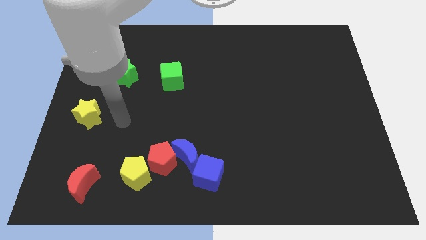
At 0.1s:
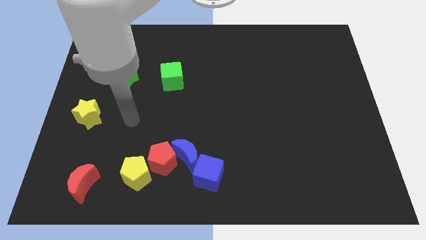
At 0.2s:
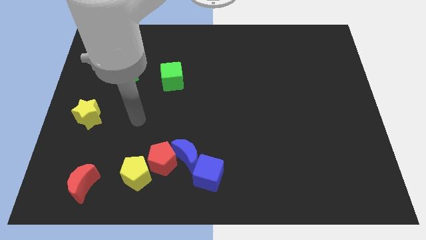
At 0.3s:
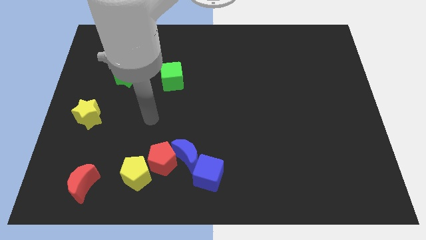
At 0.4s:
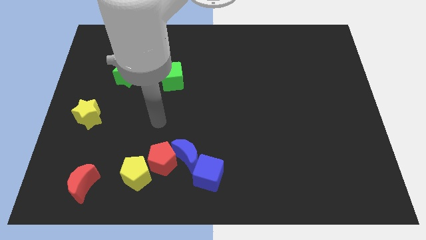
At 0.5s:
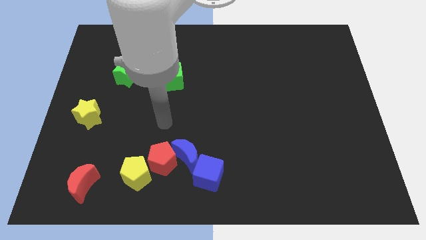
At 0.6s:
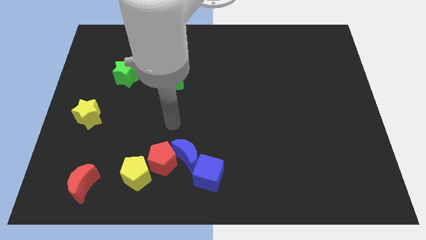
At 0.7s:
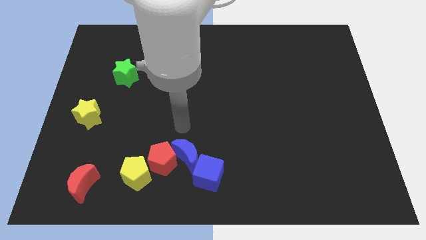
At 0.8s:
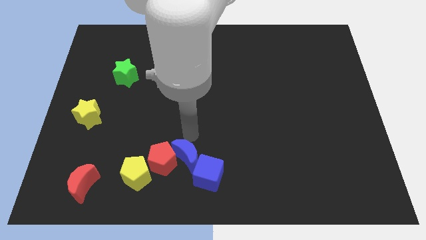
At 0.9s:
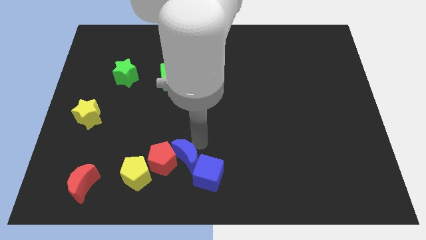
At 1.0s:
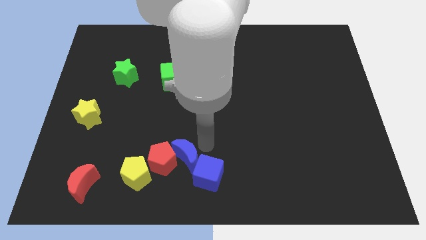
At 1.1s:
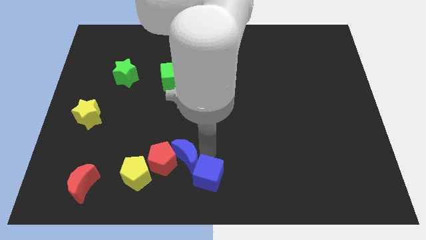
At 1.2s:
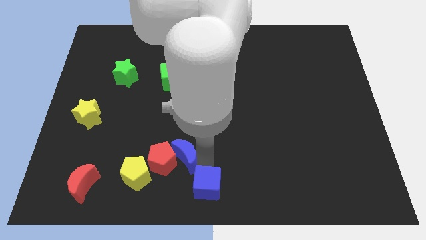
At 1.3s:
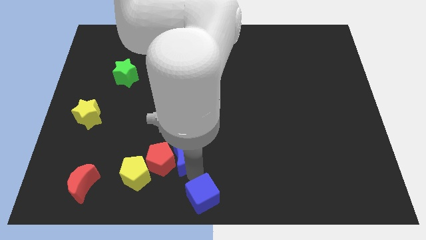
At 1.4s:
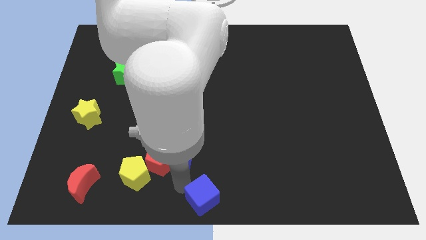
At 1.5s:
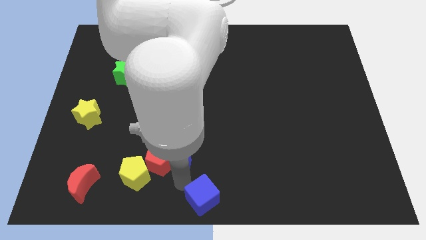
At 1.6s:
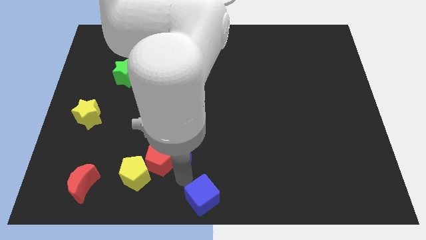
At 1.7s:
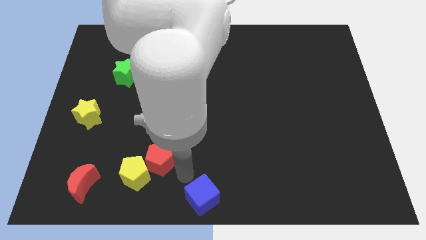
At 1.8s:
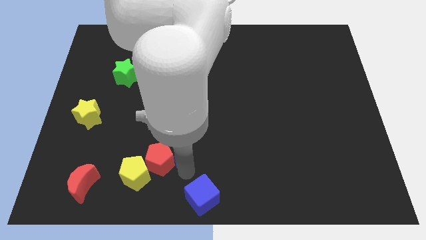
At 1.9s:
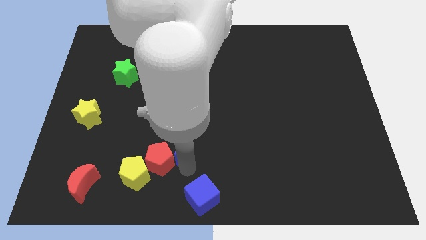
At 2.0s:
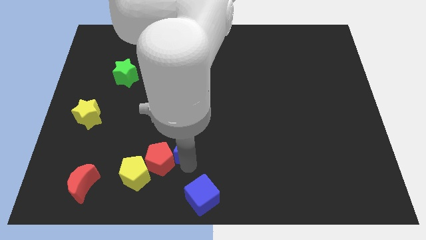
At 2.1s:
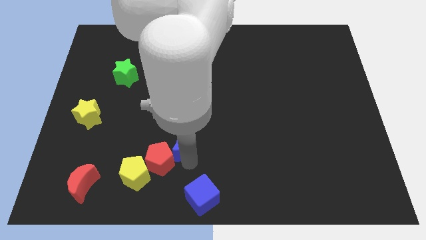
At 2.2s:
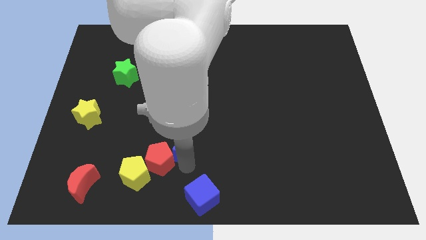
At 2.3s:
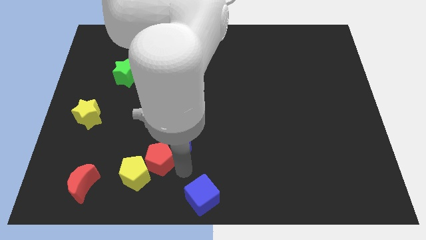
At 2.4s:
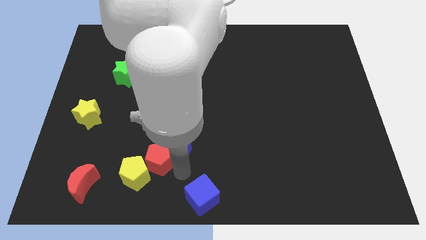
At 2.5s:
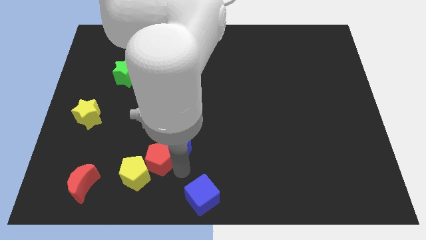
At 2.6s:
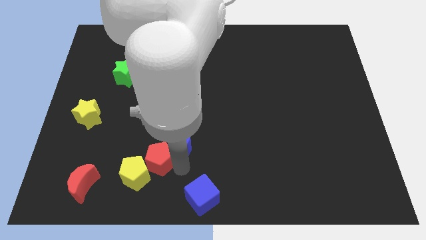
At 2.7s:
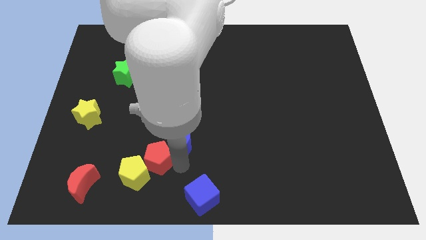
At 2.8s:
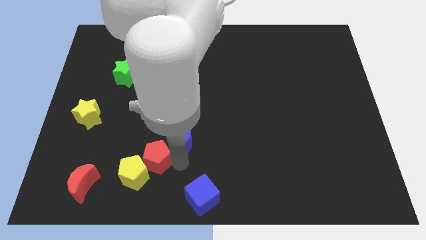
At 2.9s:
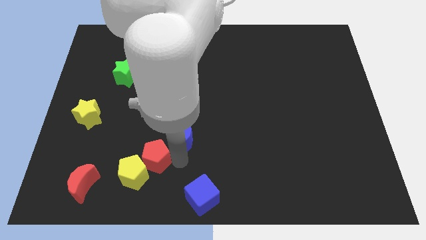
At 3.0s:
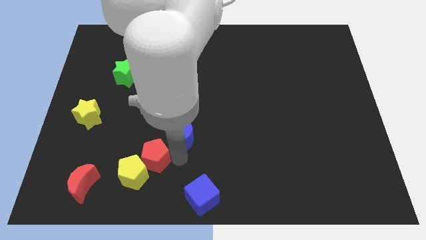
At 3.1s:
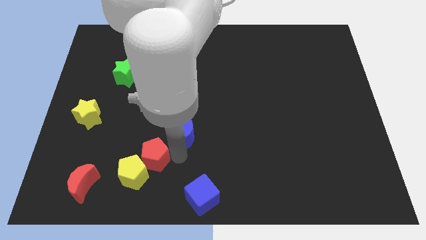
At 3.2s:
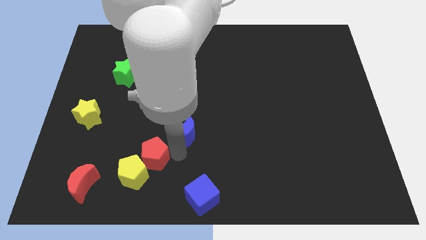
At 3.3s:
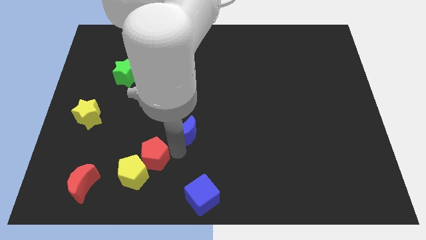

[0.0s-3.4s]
move the blue moon away from the red pentagon and blue cube

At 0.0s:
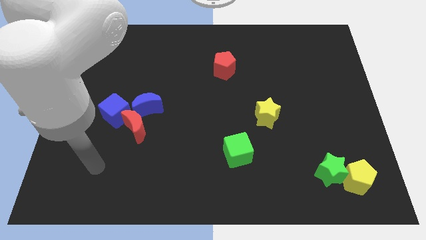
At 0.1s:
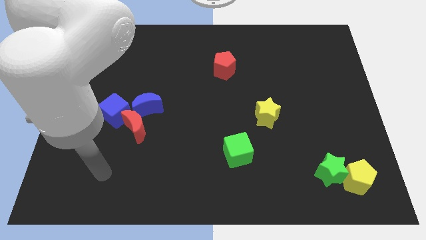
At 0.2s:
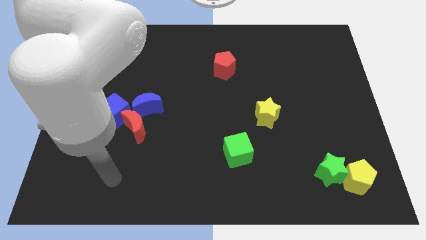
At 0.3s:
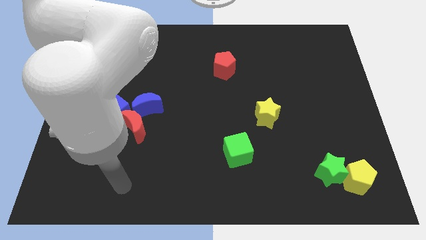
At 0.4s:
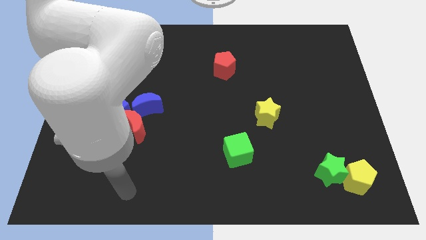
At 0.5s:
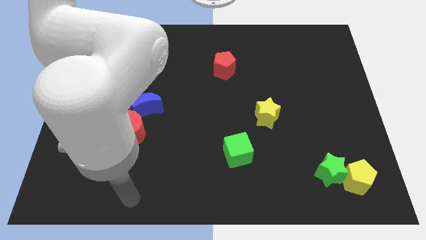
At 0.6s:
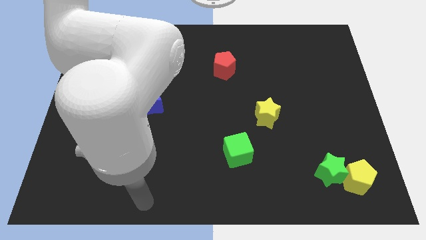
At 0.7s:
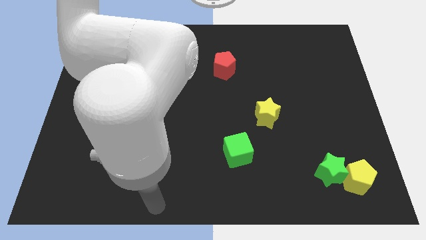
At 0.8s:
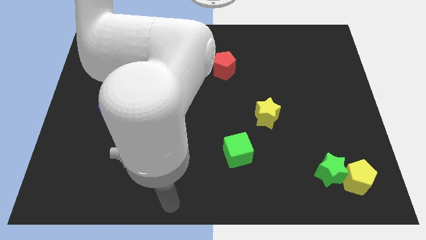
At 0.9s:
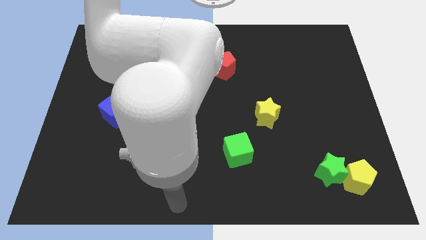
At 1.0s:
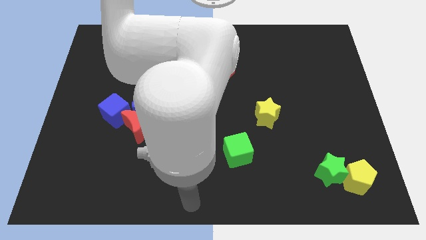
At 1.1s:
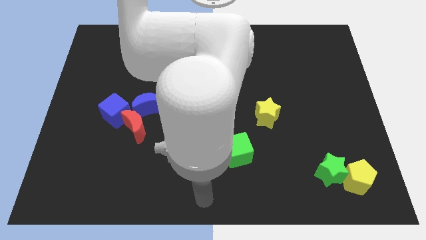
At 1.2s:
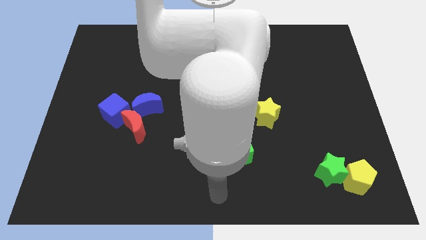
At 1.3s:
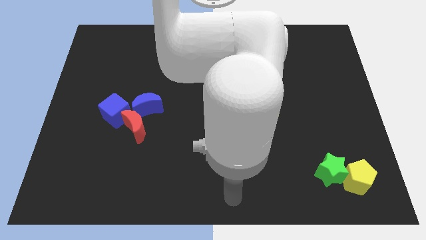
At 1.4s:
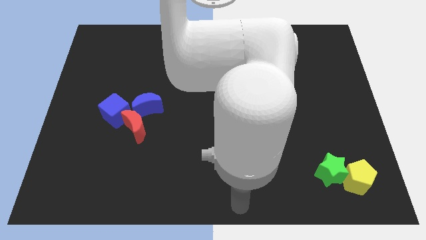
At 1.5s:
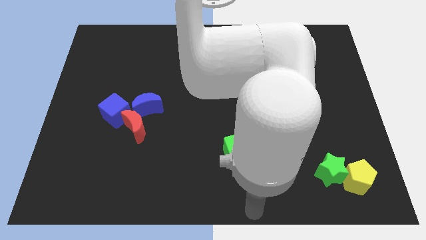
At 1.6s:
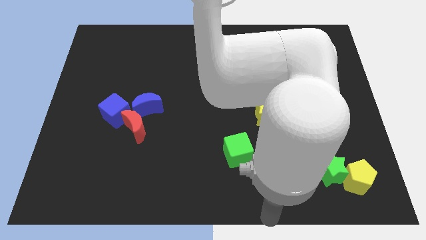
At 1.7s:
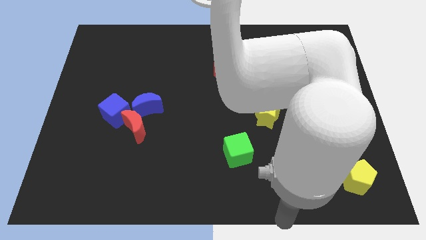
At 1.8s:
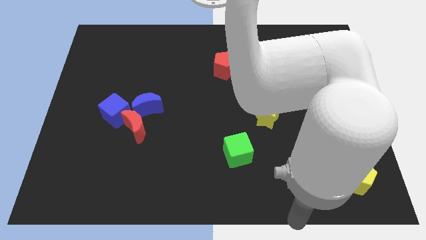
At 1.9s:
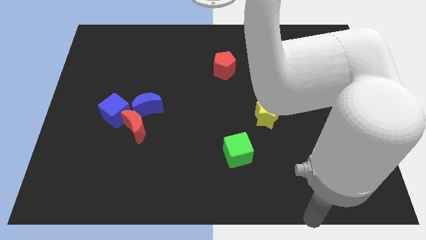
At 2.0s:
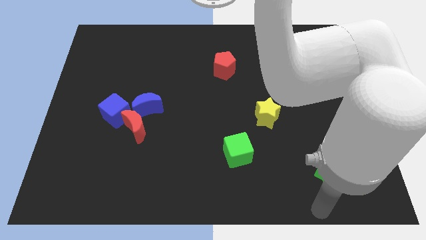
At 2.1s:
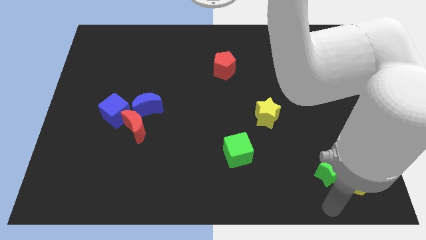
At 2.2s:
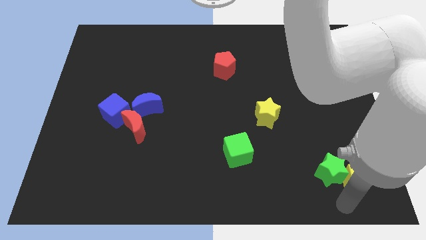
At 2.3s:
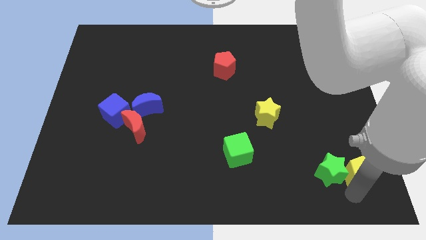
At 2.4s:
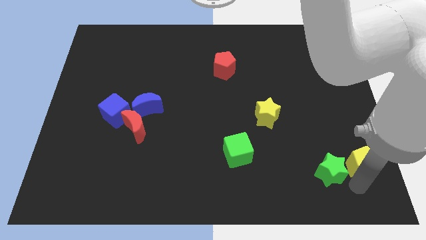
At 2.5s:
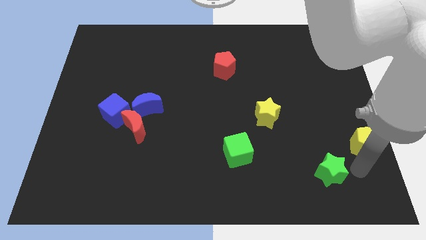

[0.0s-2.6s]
separate the green star from the yellow pentagon

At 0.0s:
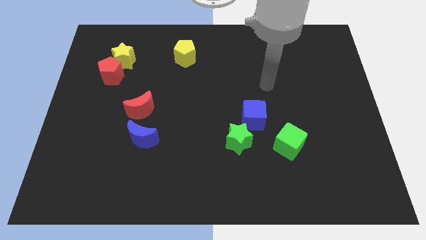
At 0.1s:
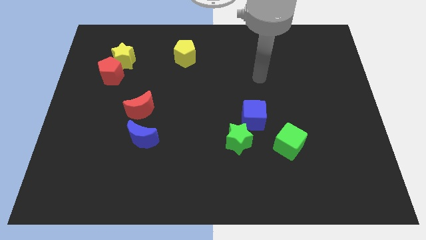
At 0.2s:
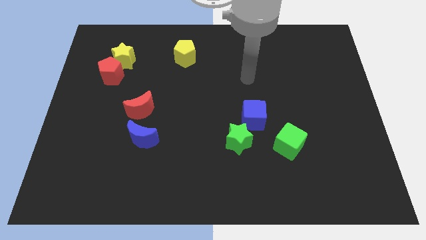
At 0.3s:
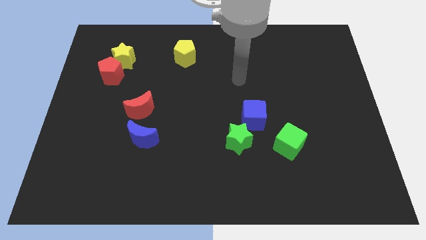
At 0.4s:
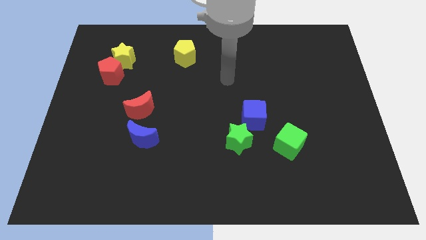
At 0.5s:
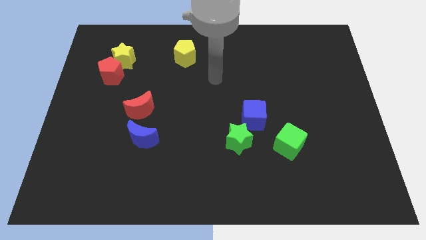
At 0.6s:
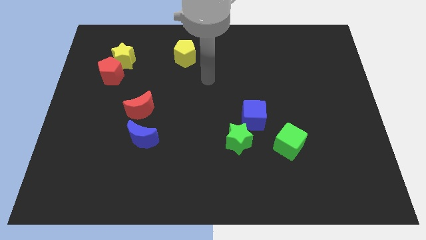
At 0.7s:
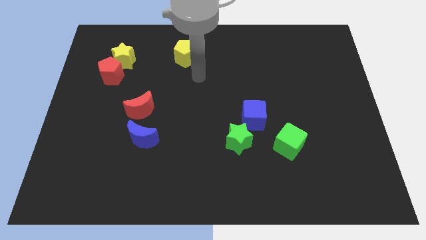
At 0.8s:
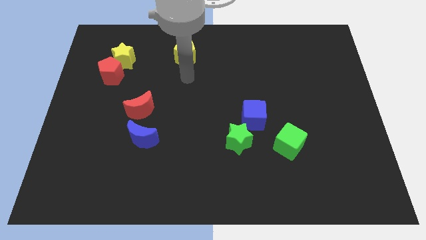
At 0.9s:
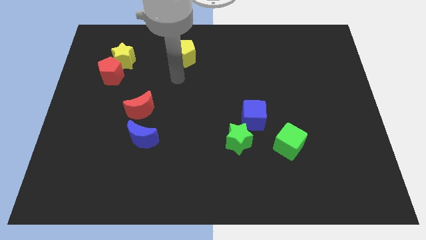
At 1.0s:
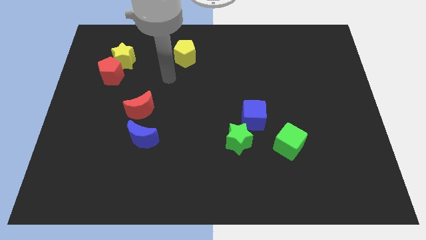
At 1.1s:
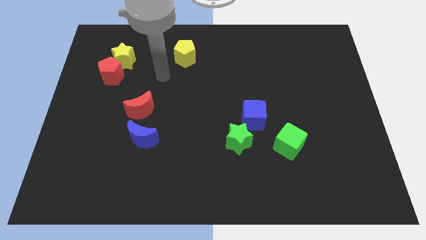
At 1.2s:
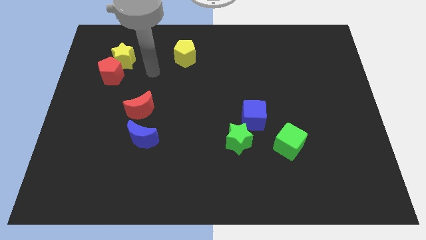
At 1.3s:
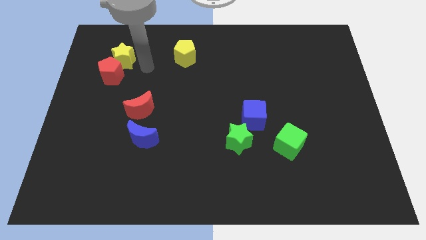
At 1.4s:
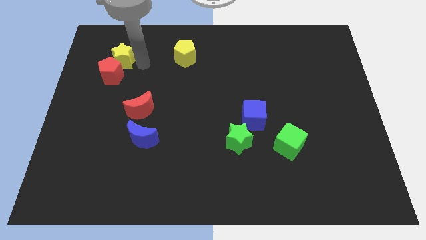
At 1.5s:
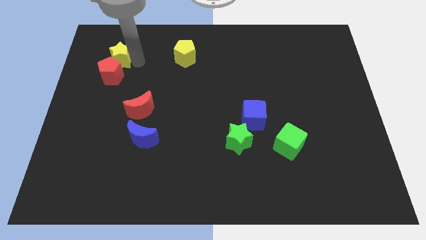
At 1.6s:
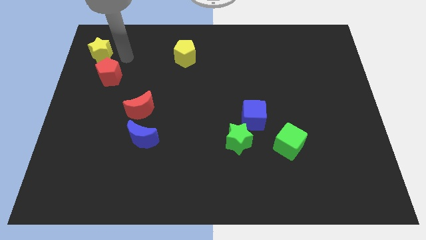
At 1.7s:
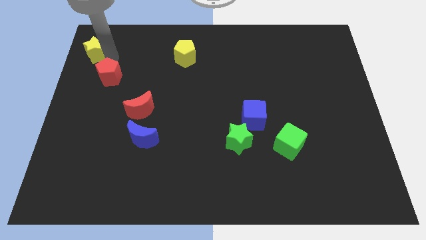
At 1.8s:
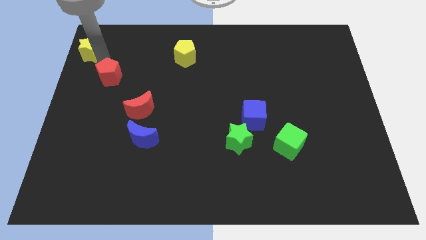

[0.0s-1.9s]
move the red pentagon away from the yellow star

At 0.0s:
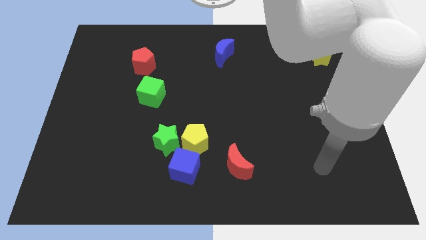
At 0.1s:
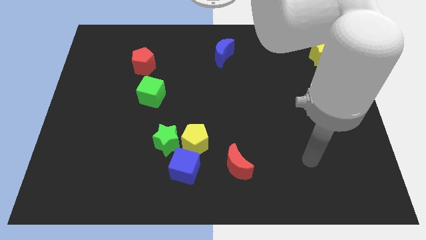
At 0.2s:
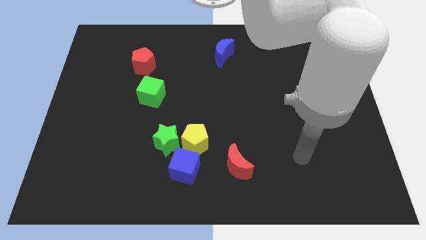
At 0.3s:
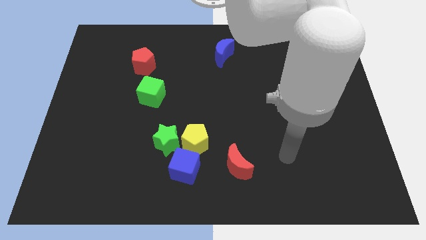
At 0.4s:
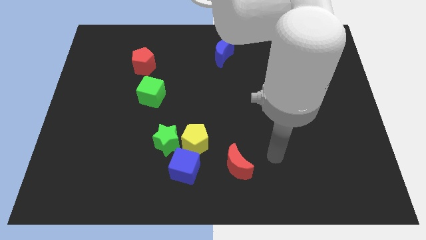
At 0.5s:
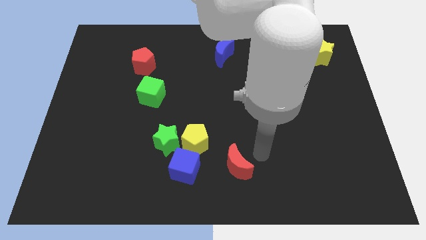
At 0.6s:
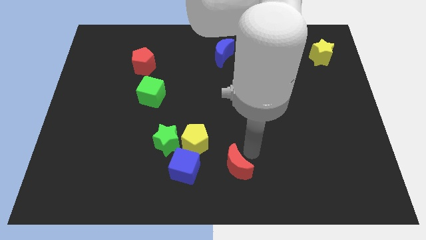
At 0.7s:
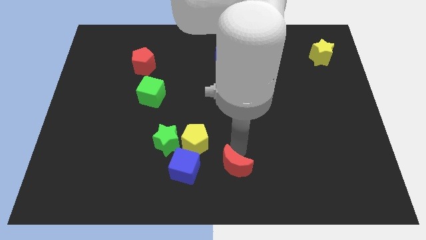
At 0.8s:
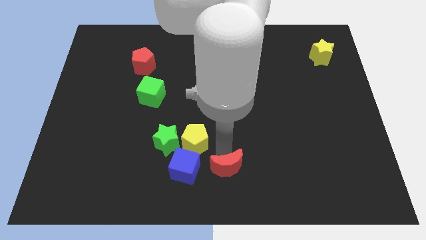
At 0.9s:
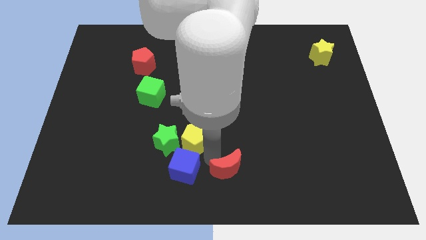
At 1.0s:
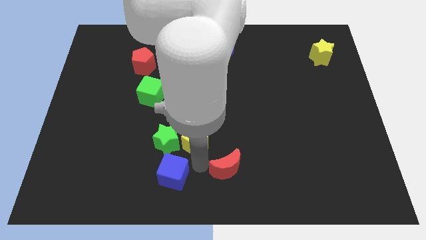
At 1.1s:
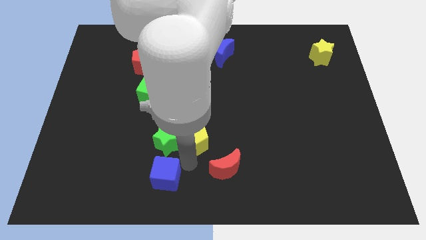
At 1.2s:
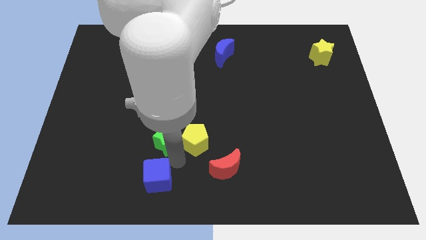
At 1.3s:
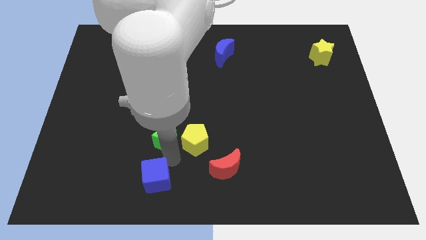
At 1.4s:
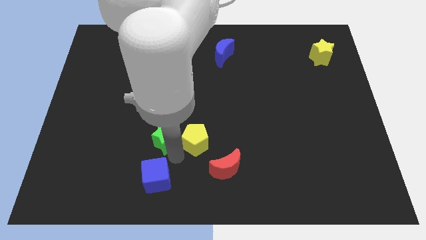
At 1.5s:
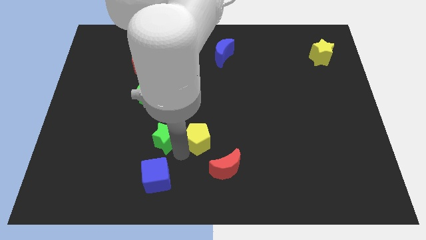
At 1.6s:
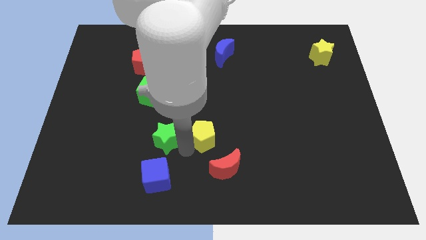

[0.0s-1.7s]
pull the yellow pentagon apart from the green star and blue cube

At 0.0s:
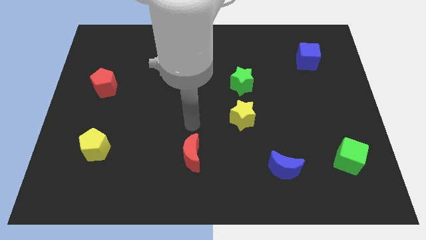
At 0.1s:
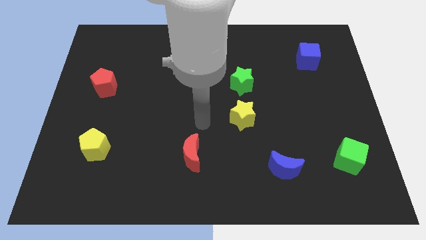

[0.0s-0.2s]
pull the green star apart from the yellow star
